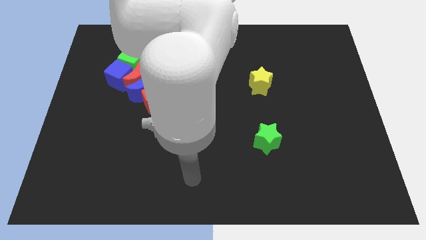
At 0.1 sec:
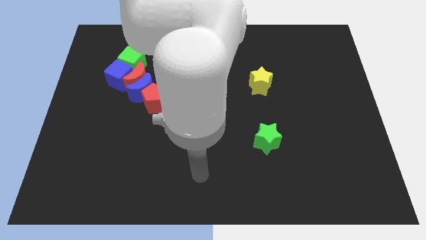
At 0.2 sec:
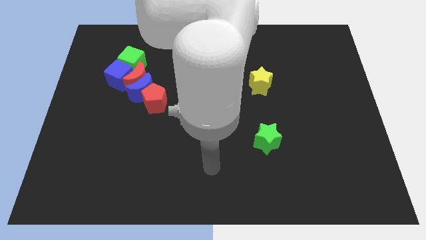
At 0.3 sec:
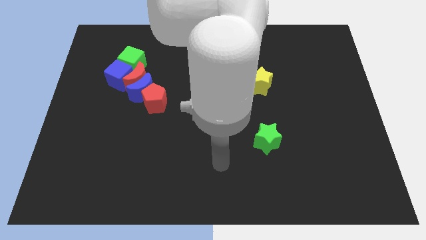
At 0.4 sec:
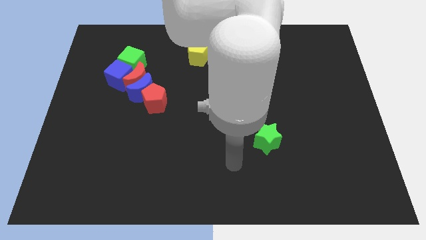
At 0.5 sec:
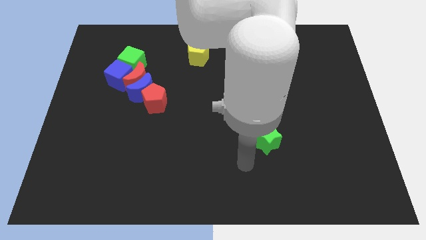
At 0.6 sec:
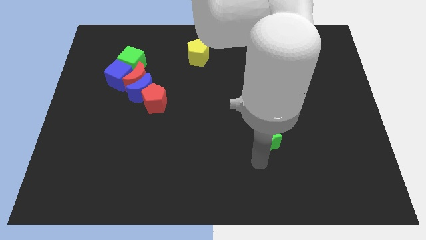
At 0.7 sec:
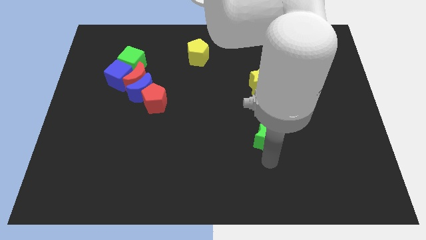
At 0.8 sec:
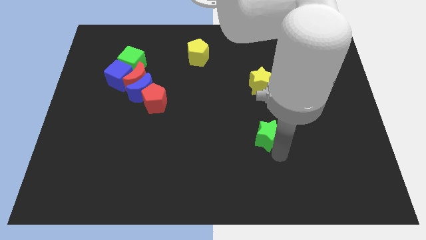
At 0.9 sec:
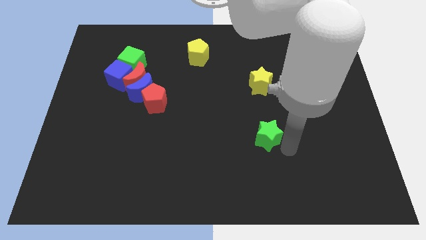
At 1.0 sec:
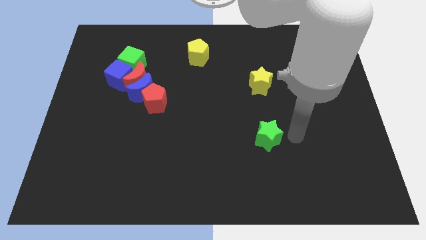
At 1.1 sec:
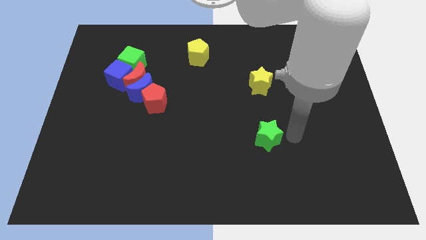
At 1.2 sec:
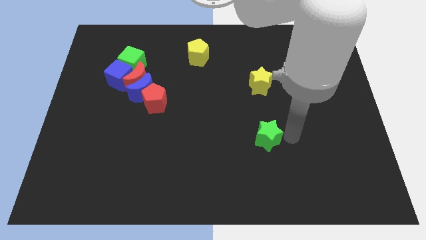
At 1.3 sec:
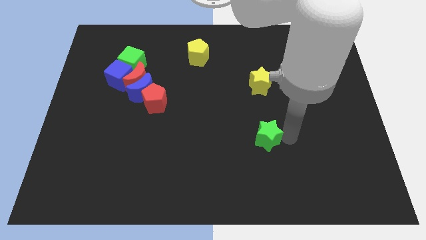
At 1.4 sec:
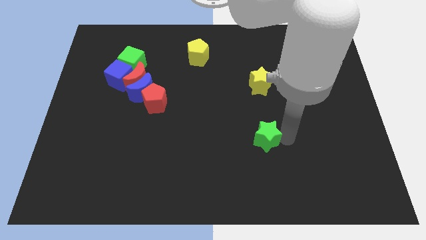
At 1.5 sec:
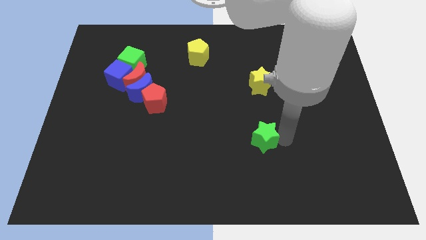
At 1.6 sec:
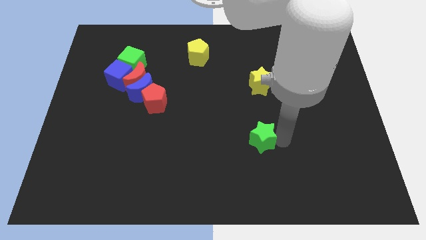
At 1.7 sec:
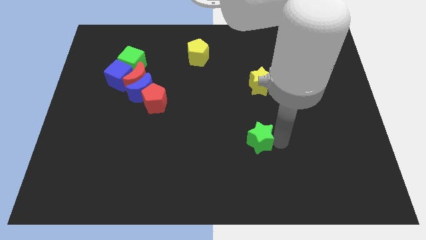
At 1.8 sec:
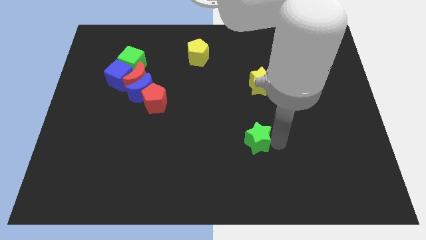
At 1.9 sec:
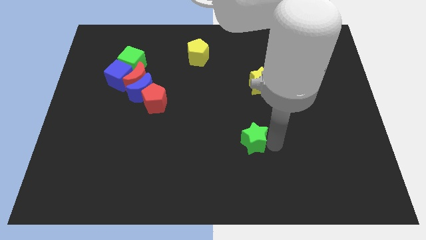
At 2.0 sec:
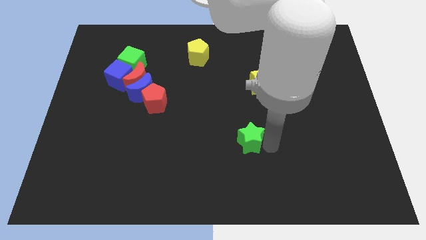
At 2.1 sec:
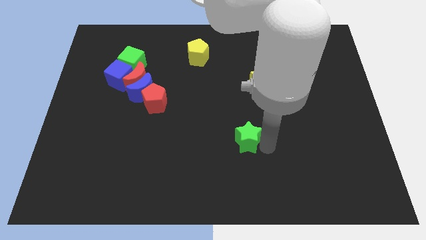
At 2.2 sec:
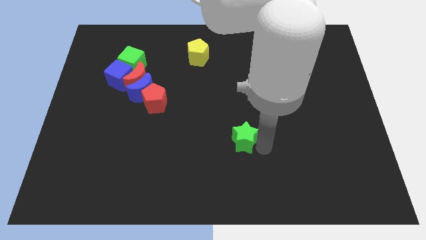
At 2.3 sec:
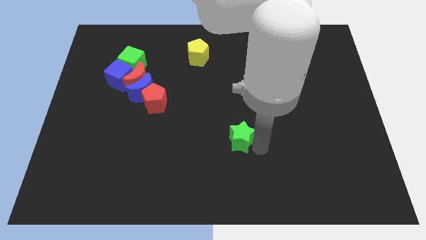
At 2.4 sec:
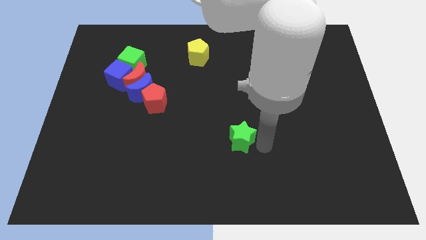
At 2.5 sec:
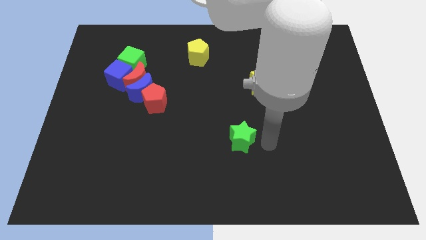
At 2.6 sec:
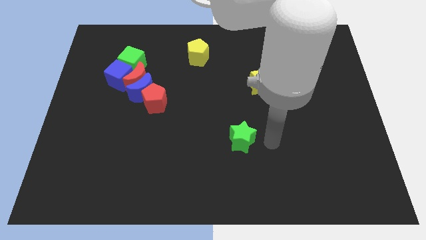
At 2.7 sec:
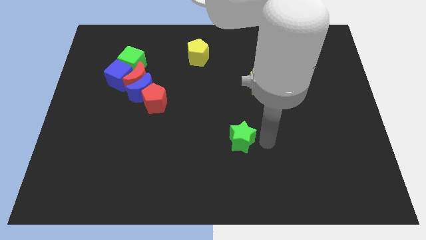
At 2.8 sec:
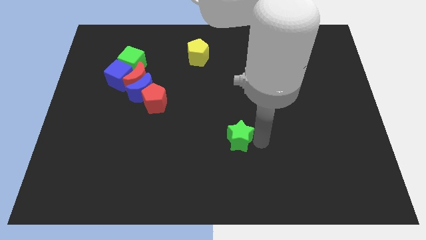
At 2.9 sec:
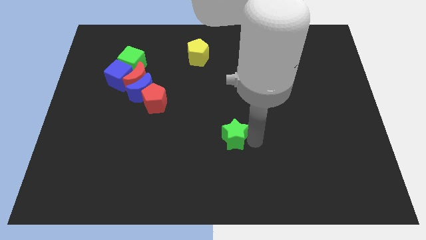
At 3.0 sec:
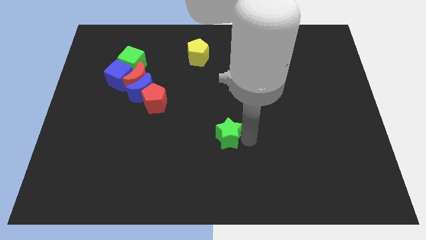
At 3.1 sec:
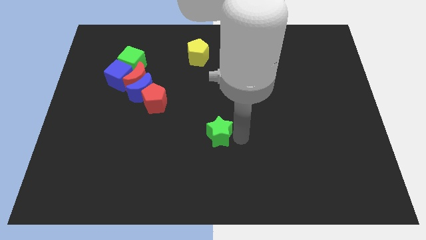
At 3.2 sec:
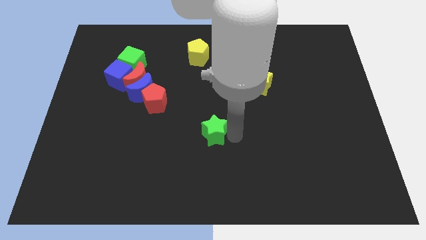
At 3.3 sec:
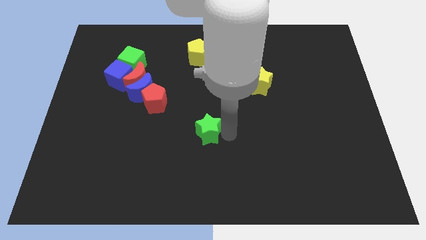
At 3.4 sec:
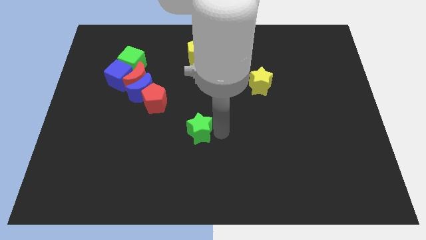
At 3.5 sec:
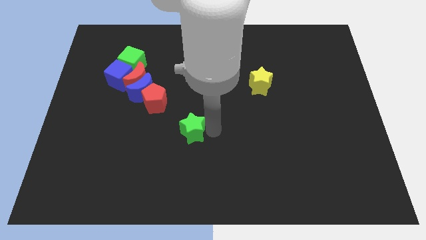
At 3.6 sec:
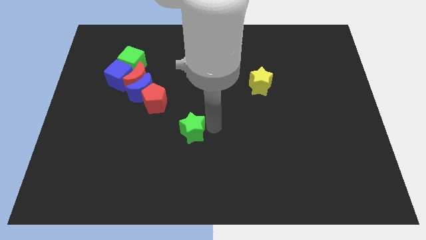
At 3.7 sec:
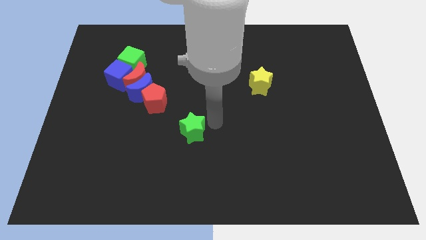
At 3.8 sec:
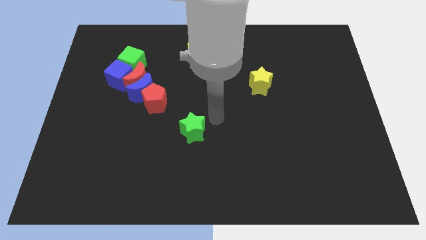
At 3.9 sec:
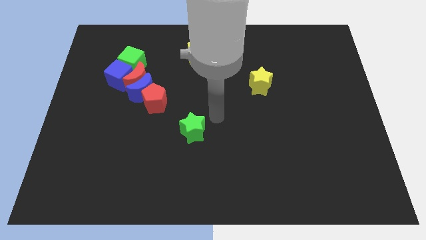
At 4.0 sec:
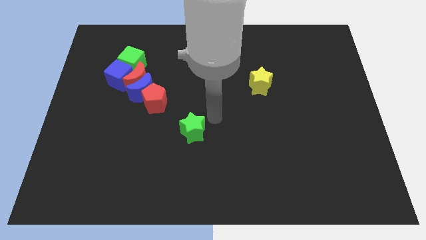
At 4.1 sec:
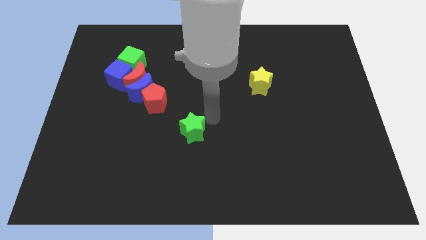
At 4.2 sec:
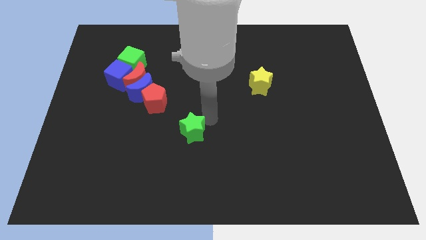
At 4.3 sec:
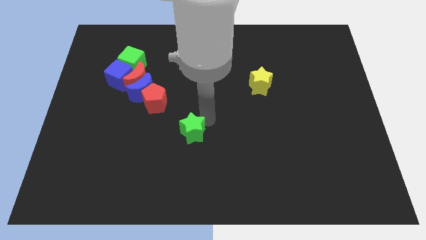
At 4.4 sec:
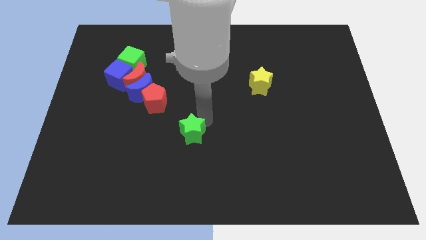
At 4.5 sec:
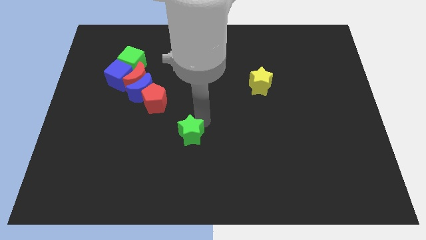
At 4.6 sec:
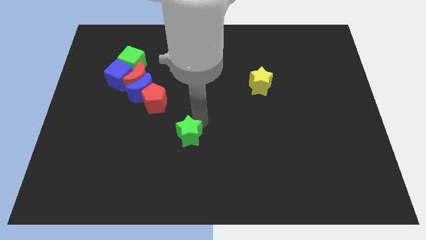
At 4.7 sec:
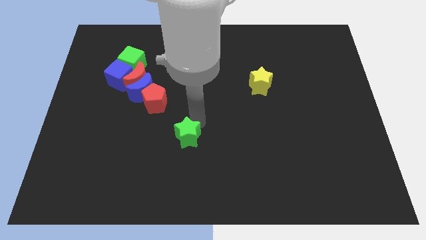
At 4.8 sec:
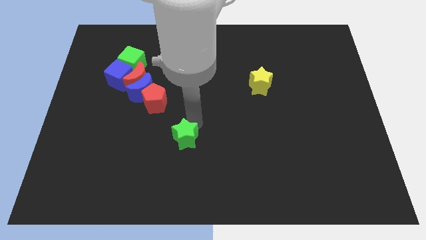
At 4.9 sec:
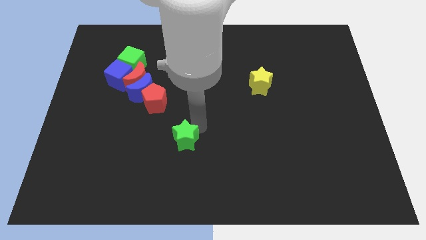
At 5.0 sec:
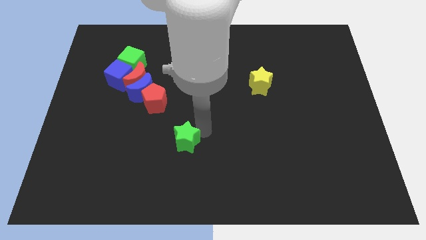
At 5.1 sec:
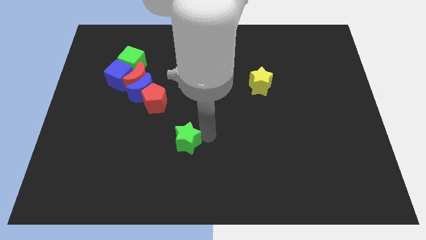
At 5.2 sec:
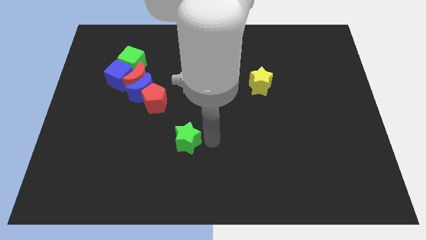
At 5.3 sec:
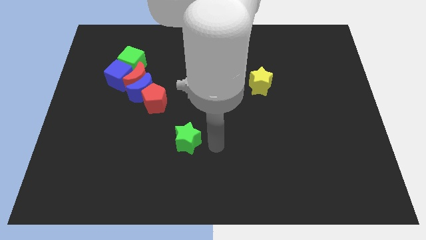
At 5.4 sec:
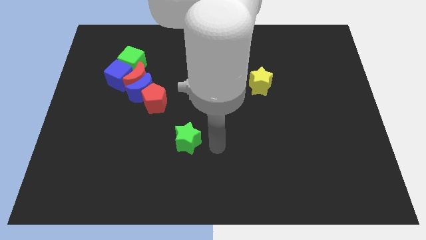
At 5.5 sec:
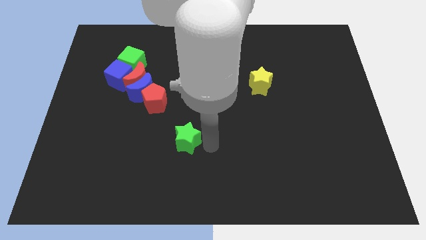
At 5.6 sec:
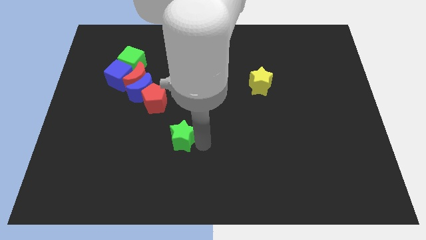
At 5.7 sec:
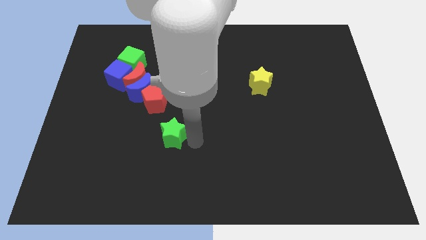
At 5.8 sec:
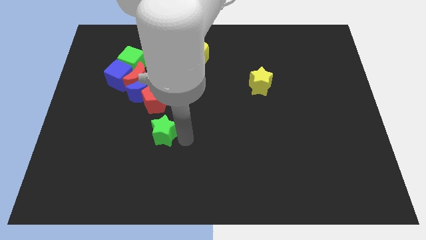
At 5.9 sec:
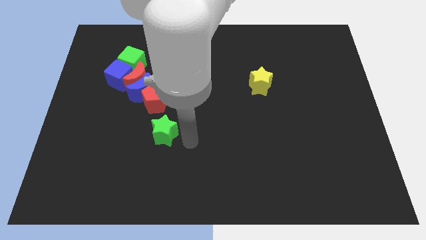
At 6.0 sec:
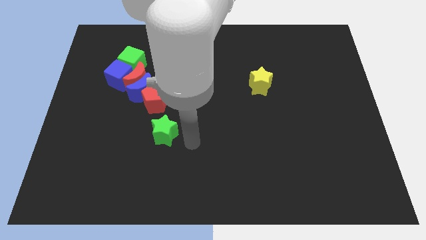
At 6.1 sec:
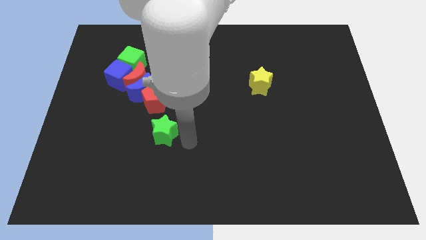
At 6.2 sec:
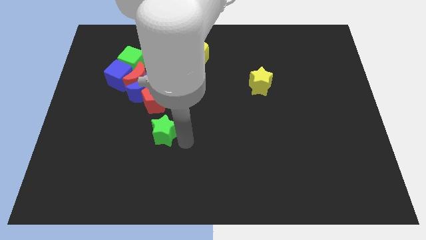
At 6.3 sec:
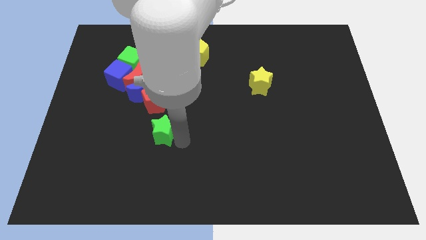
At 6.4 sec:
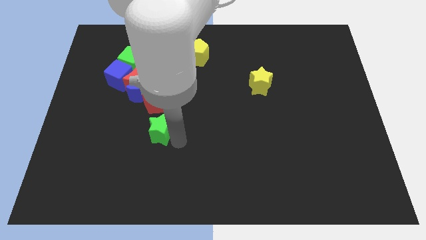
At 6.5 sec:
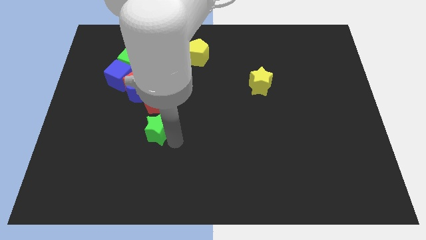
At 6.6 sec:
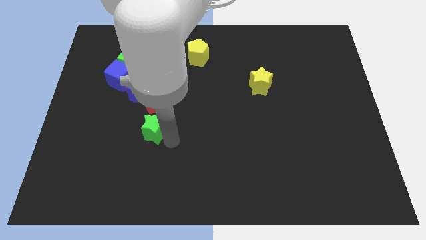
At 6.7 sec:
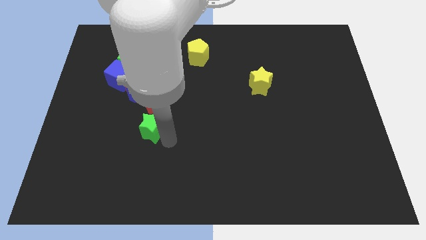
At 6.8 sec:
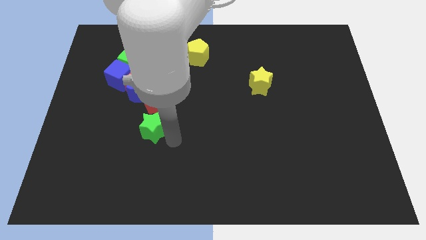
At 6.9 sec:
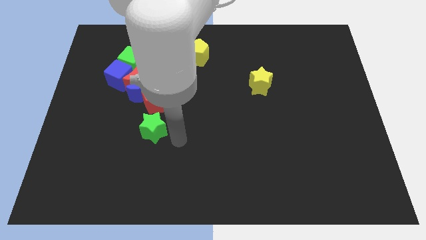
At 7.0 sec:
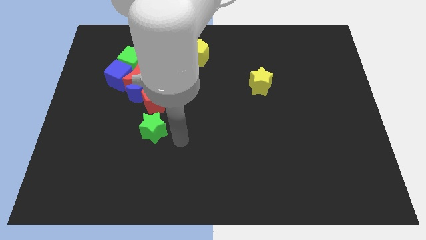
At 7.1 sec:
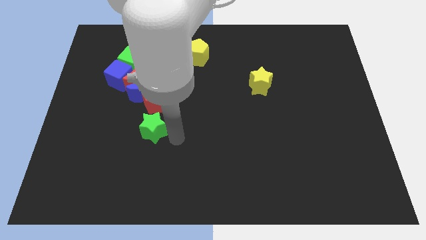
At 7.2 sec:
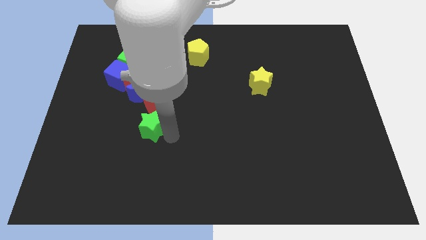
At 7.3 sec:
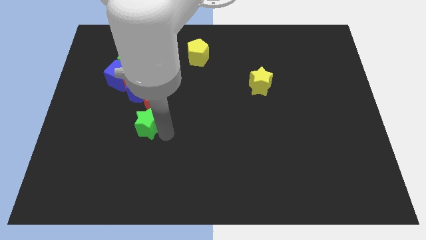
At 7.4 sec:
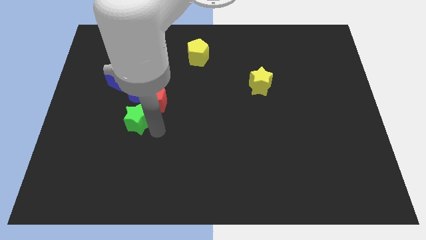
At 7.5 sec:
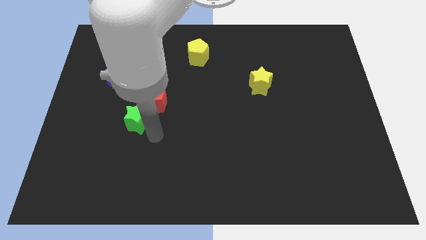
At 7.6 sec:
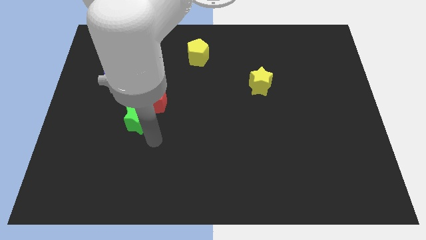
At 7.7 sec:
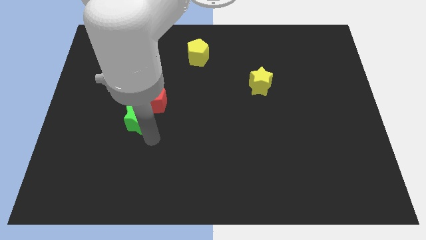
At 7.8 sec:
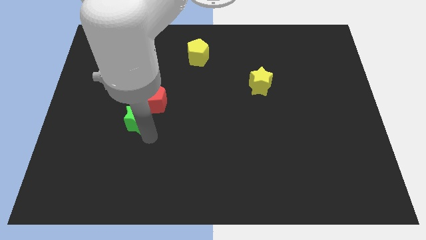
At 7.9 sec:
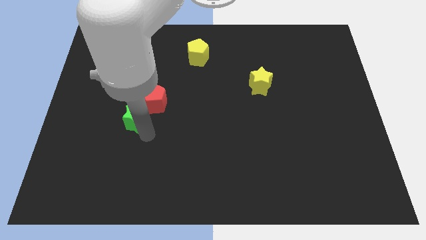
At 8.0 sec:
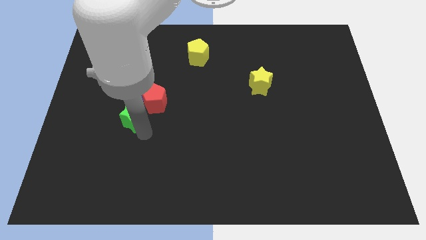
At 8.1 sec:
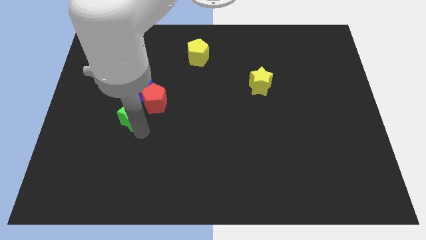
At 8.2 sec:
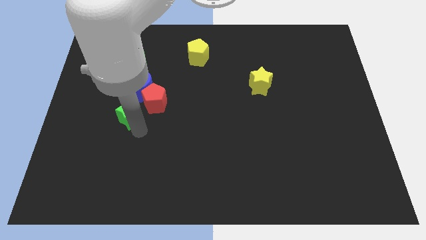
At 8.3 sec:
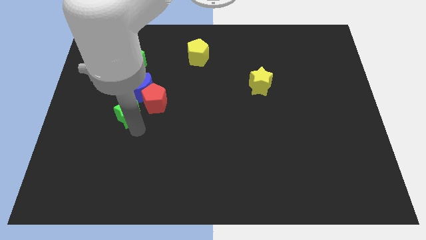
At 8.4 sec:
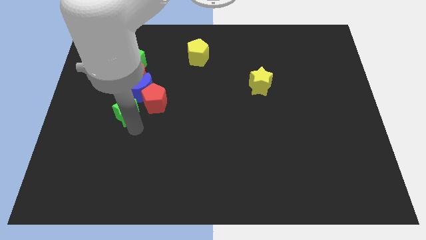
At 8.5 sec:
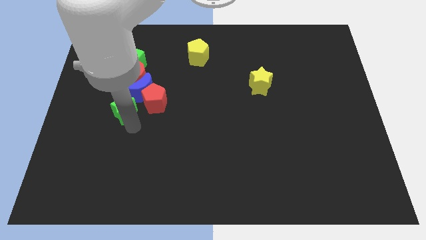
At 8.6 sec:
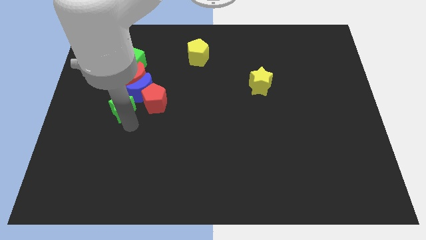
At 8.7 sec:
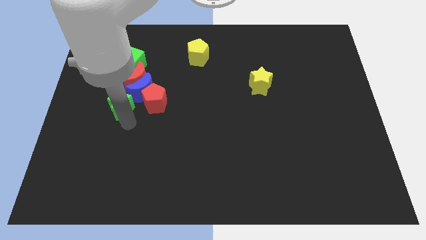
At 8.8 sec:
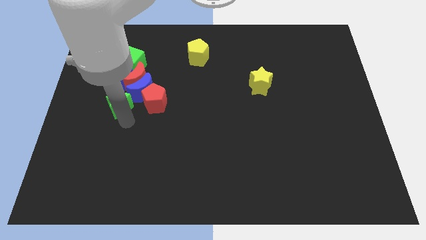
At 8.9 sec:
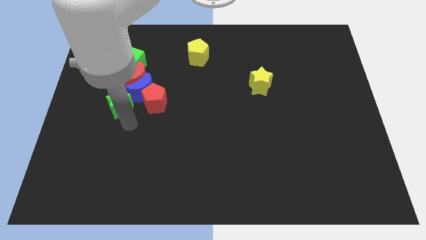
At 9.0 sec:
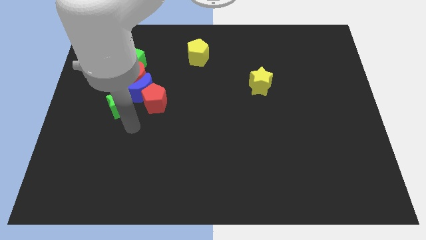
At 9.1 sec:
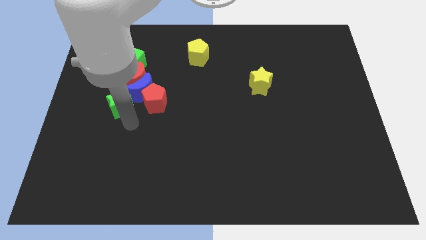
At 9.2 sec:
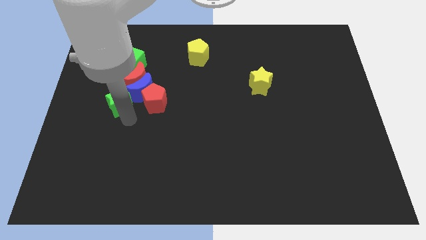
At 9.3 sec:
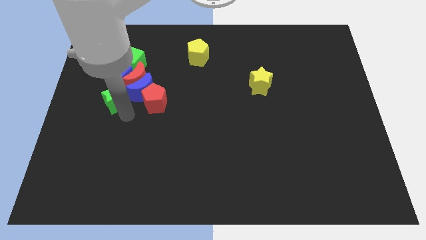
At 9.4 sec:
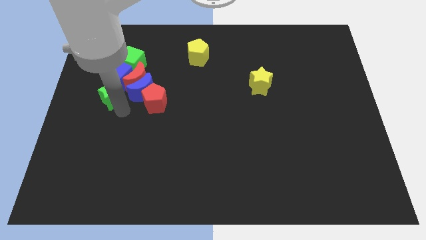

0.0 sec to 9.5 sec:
move the green star to the blue cube
